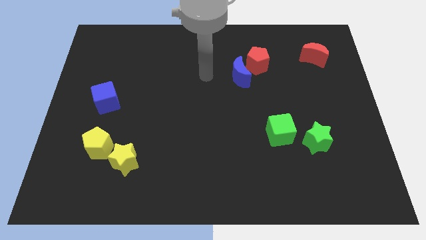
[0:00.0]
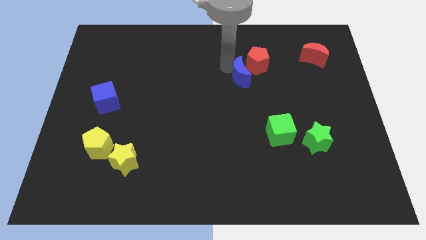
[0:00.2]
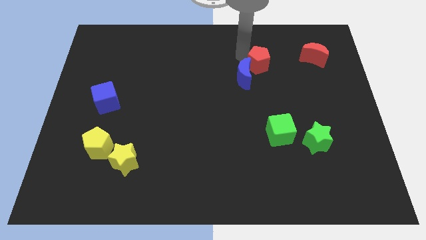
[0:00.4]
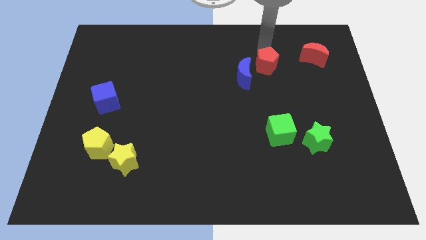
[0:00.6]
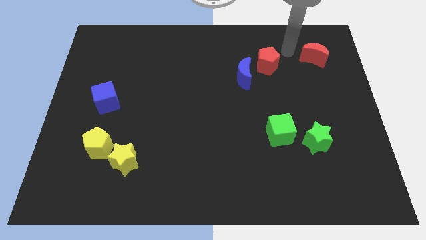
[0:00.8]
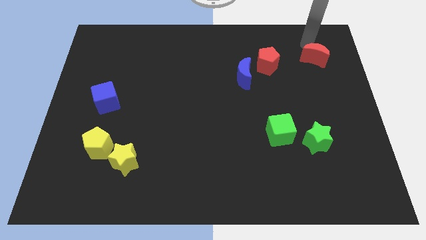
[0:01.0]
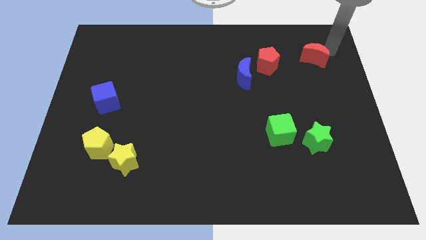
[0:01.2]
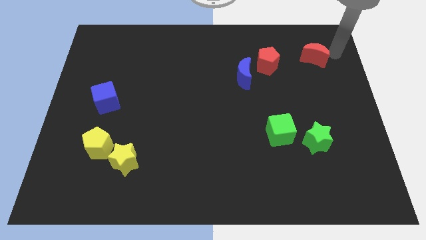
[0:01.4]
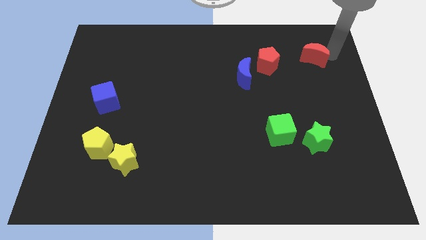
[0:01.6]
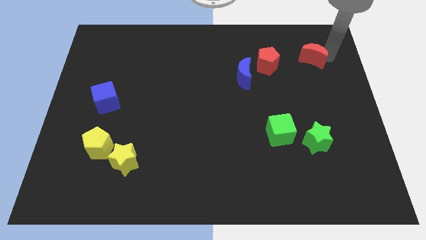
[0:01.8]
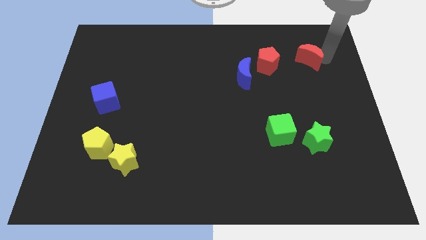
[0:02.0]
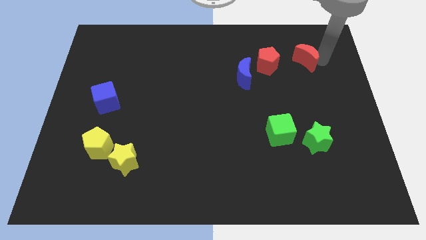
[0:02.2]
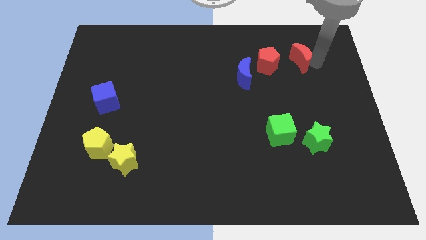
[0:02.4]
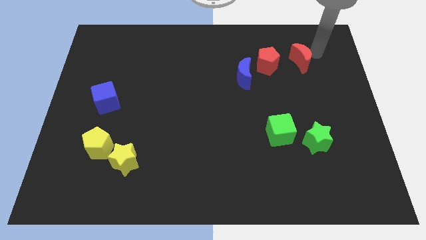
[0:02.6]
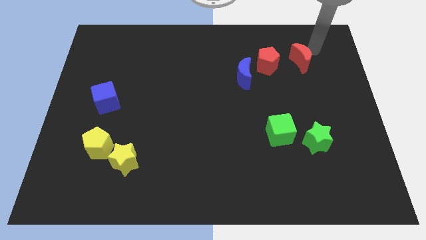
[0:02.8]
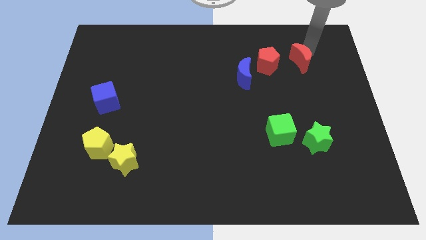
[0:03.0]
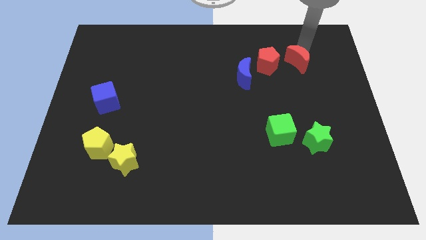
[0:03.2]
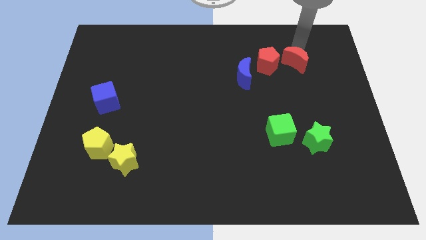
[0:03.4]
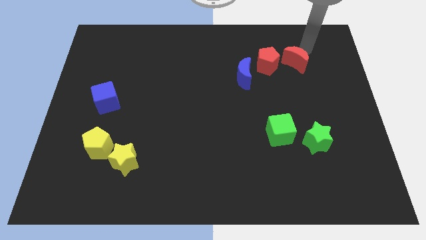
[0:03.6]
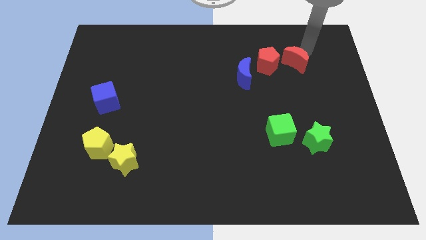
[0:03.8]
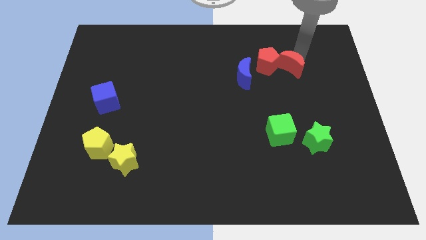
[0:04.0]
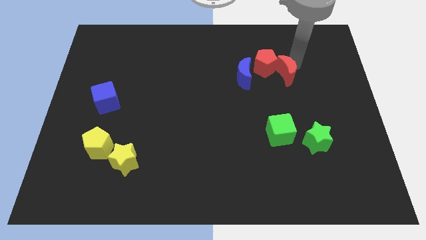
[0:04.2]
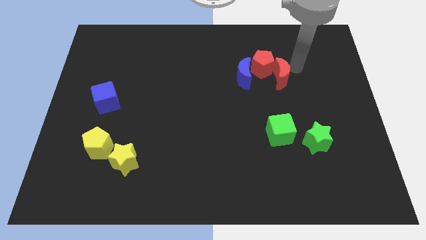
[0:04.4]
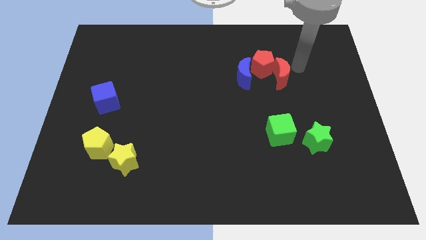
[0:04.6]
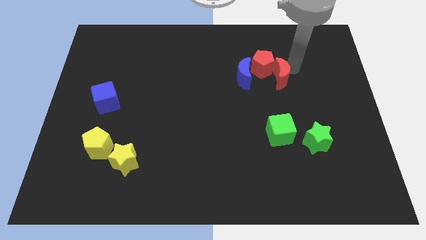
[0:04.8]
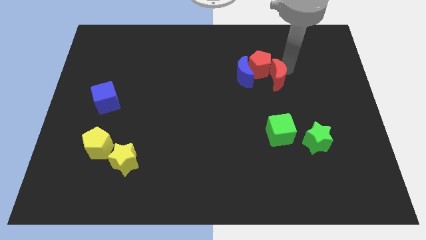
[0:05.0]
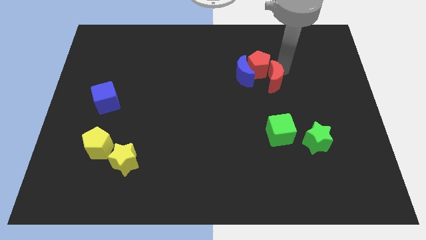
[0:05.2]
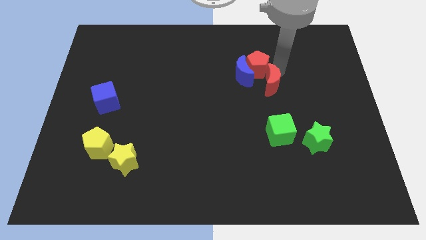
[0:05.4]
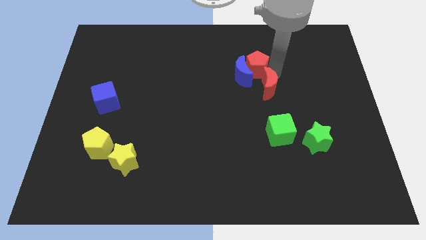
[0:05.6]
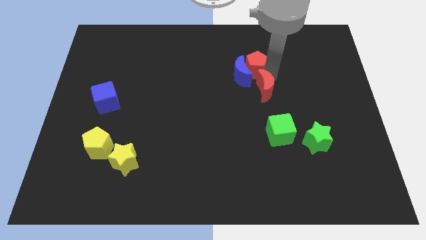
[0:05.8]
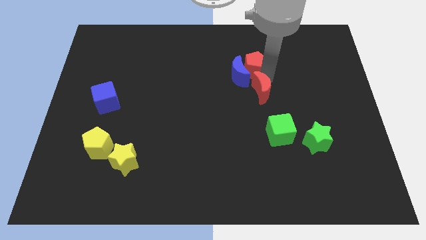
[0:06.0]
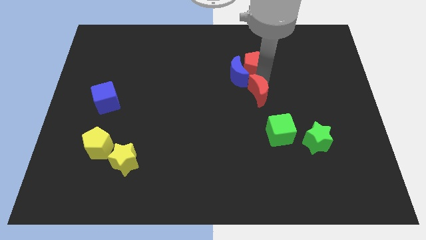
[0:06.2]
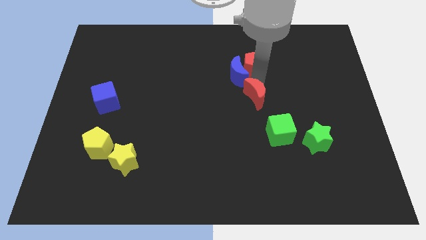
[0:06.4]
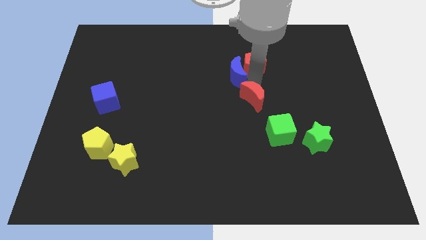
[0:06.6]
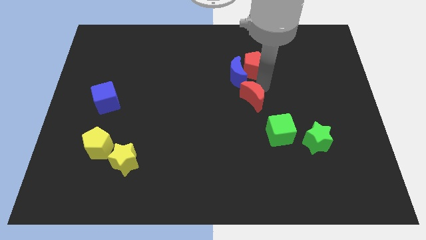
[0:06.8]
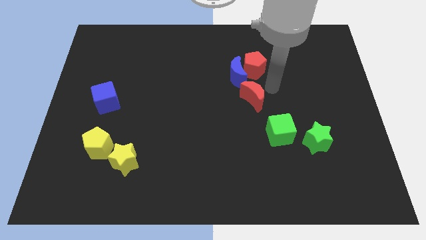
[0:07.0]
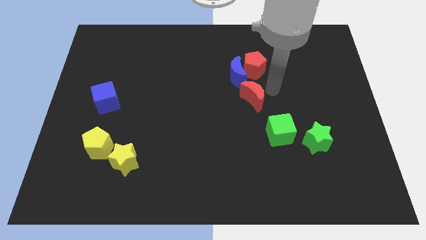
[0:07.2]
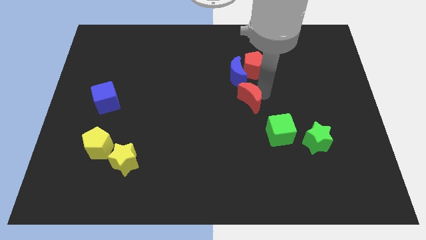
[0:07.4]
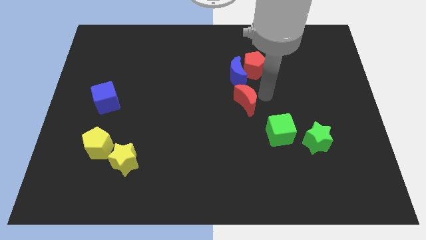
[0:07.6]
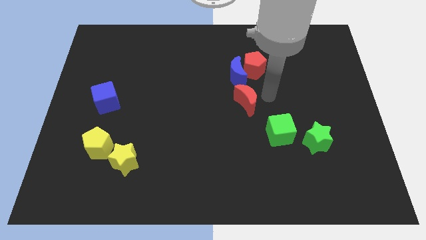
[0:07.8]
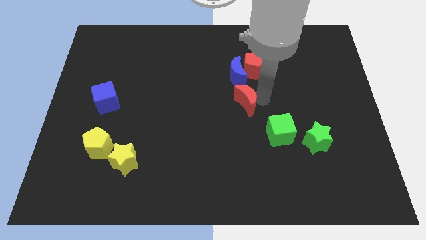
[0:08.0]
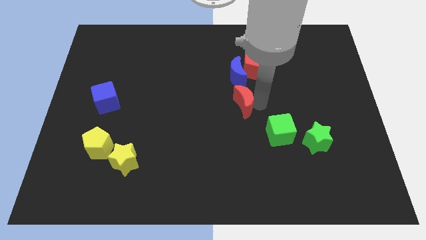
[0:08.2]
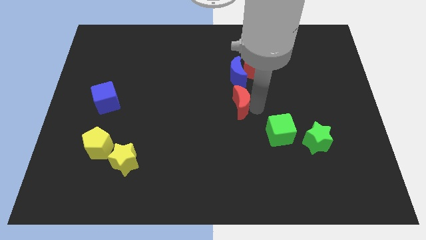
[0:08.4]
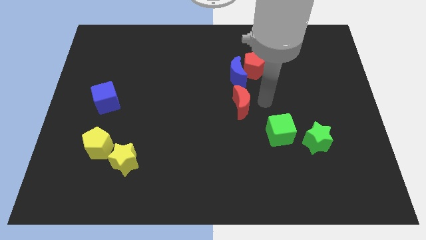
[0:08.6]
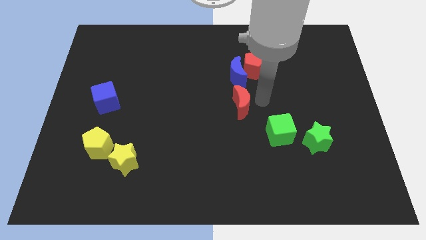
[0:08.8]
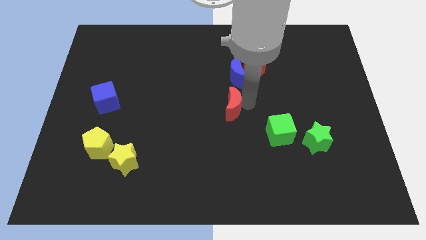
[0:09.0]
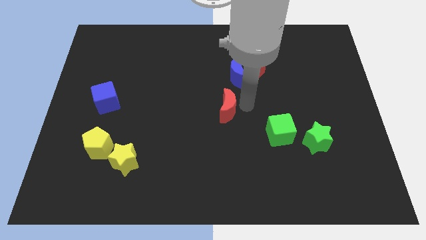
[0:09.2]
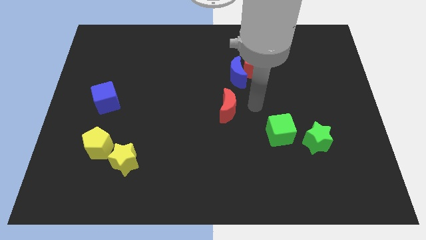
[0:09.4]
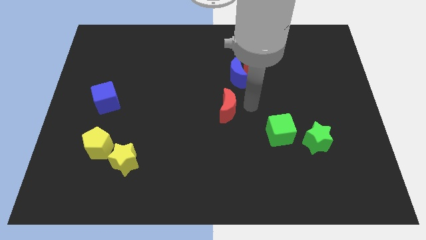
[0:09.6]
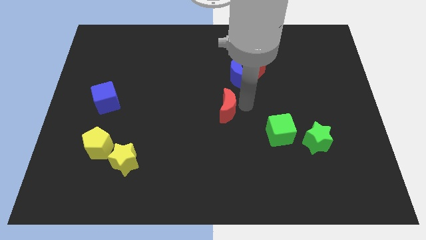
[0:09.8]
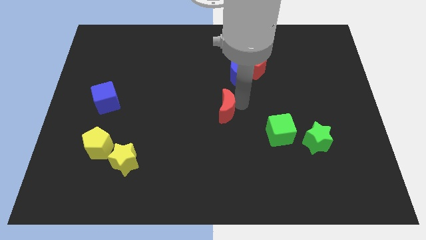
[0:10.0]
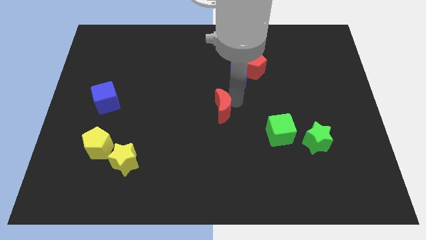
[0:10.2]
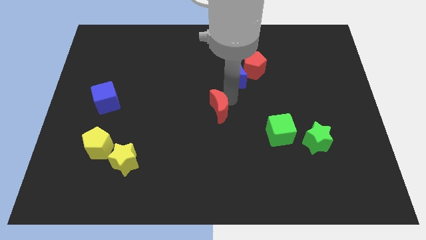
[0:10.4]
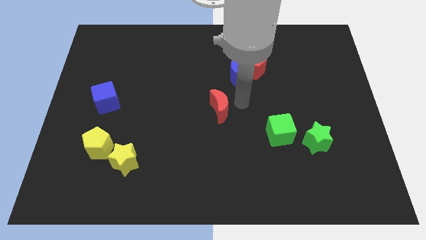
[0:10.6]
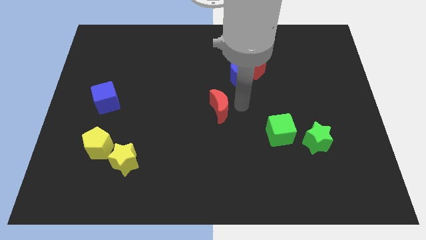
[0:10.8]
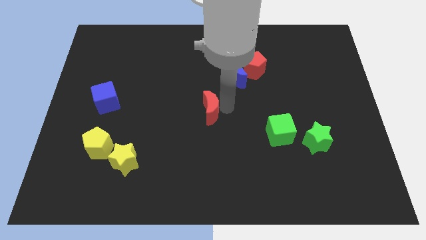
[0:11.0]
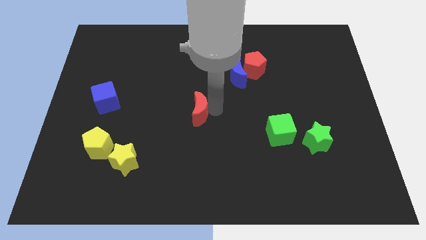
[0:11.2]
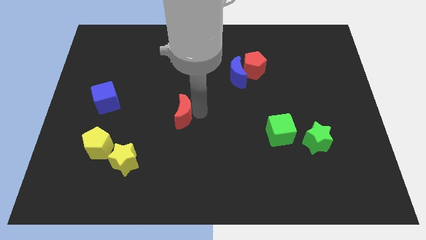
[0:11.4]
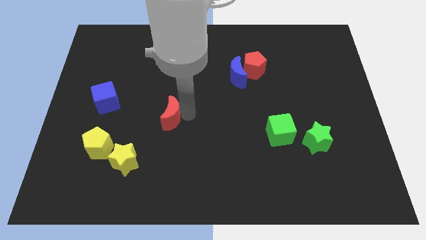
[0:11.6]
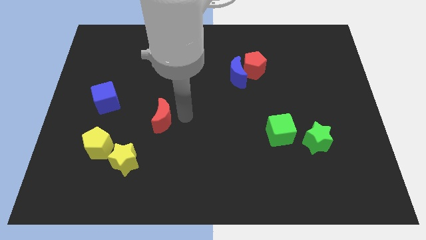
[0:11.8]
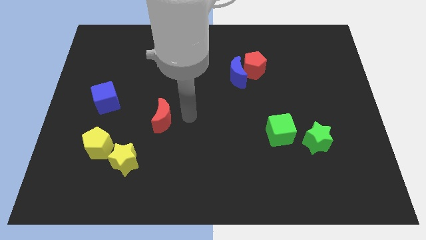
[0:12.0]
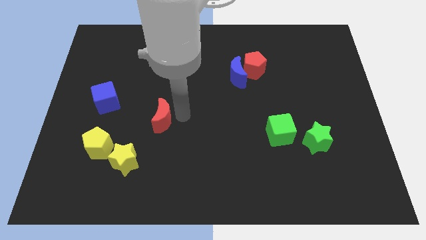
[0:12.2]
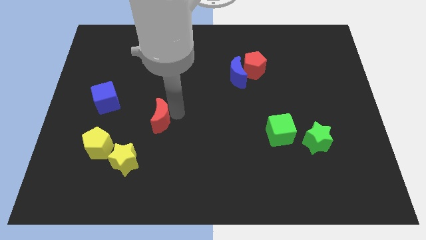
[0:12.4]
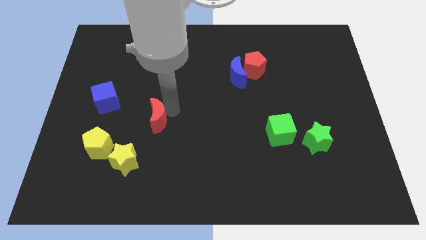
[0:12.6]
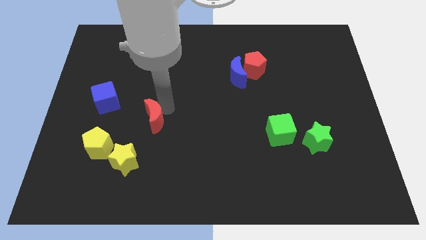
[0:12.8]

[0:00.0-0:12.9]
push the red moon to the top of the yellow star

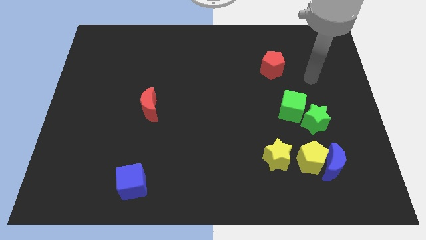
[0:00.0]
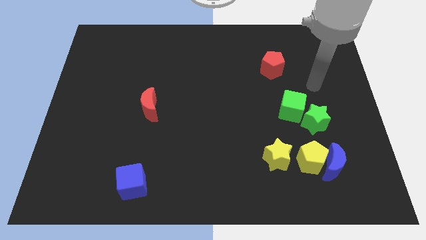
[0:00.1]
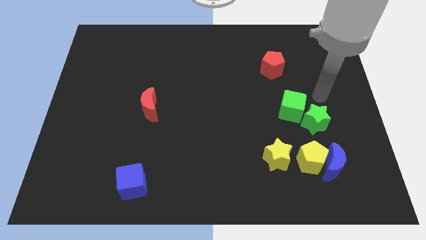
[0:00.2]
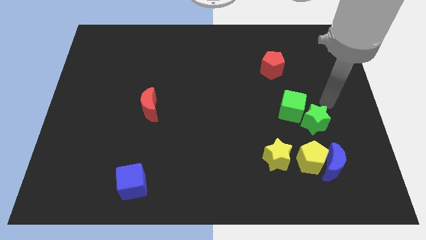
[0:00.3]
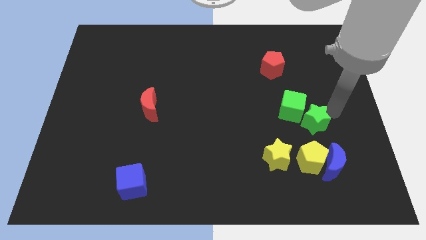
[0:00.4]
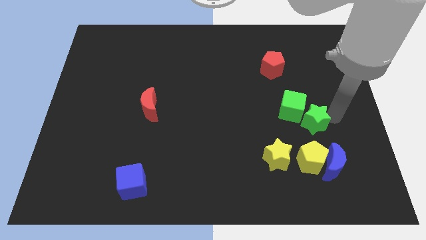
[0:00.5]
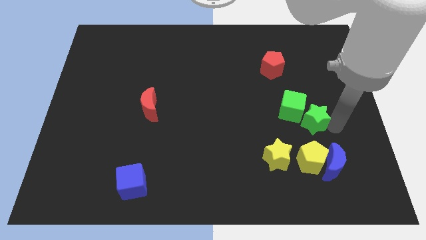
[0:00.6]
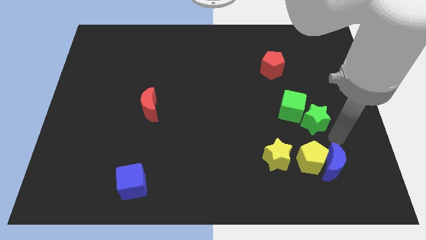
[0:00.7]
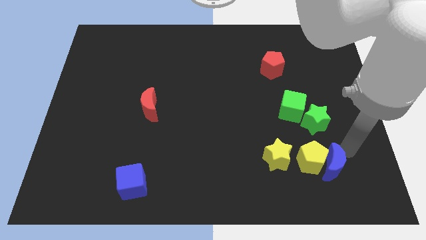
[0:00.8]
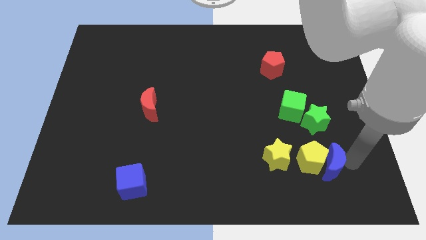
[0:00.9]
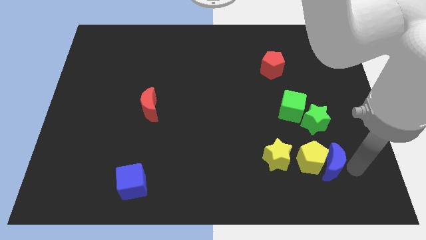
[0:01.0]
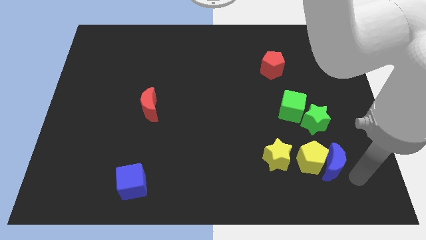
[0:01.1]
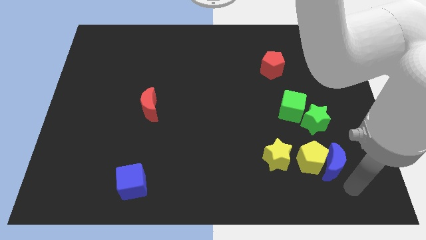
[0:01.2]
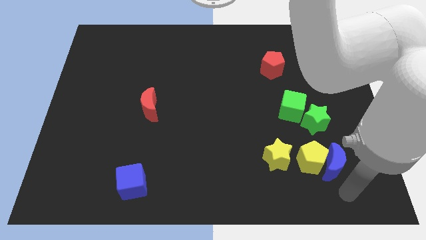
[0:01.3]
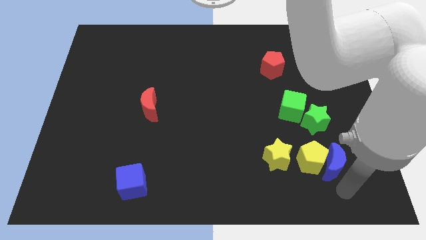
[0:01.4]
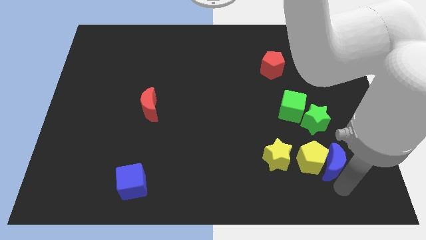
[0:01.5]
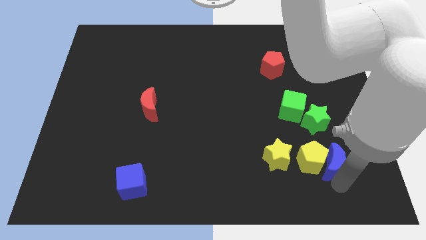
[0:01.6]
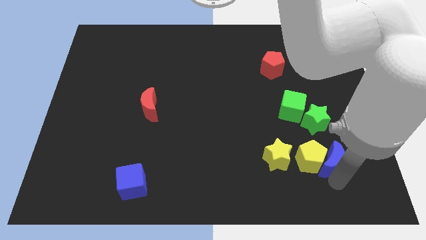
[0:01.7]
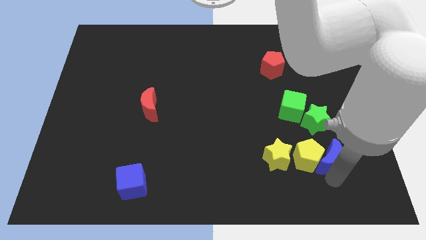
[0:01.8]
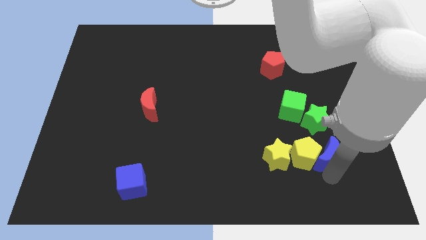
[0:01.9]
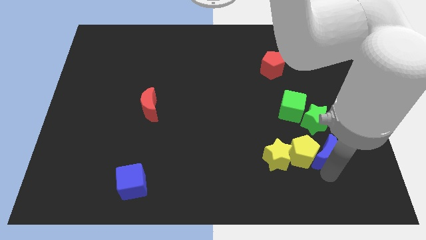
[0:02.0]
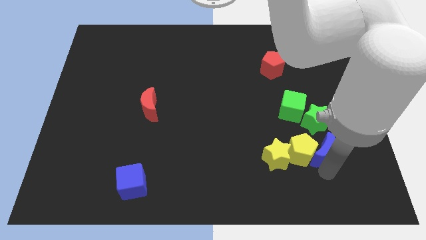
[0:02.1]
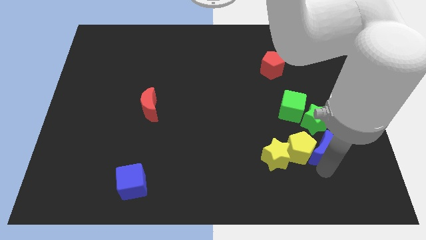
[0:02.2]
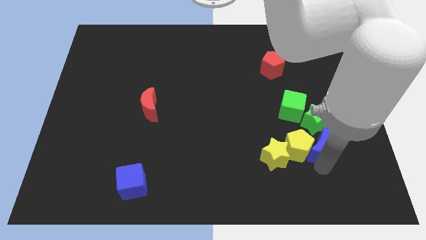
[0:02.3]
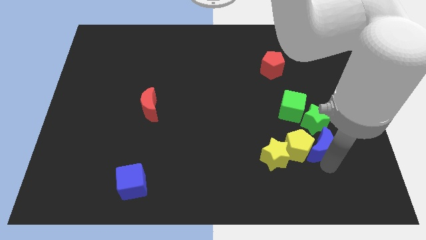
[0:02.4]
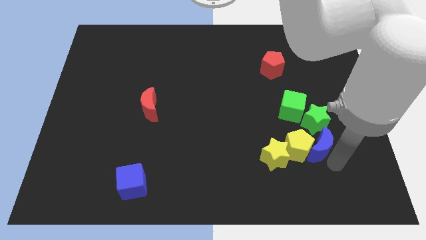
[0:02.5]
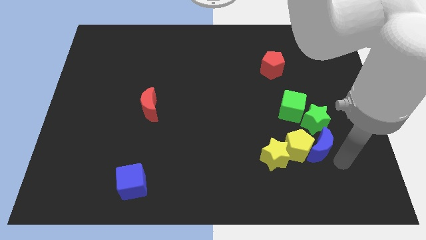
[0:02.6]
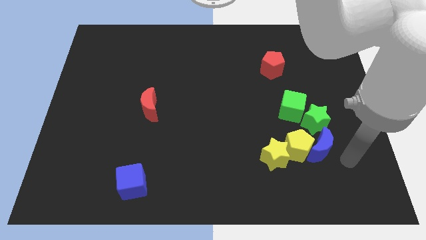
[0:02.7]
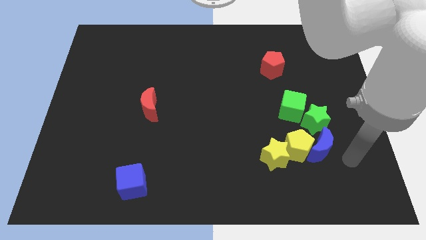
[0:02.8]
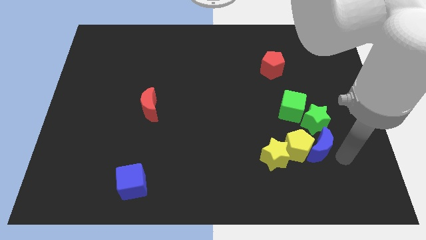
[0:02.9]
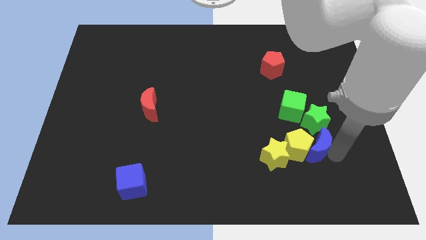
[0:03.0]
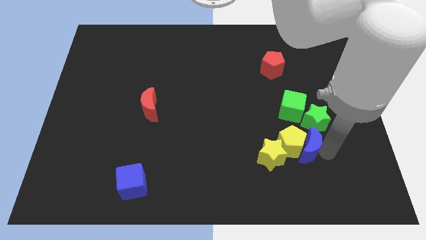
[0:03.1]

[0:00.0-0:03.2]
slide the blue moon to the bottom left of the green star
